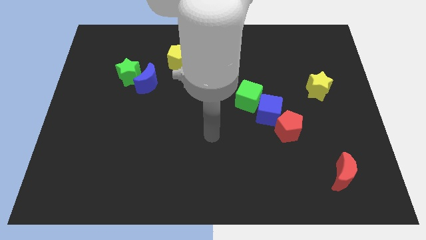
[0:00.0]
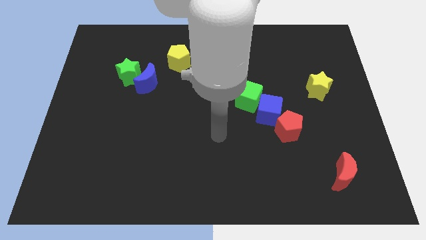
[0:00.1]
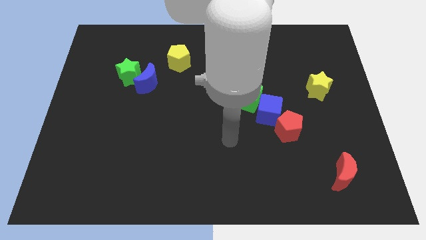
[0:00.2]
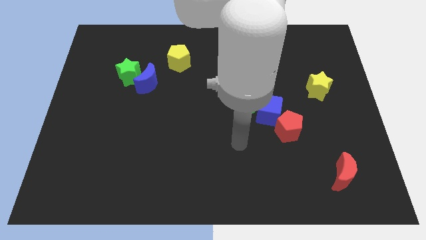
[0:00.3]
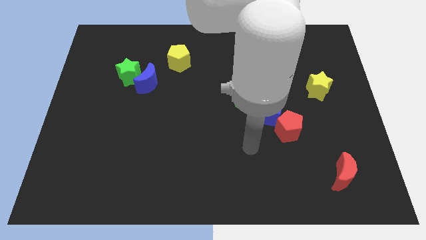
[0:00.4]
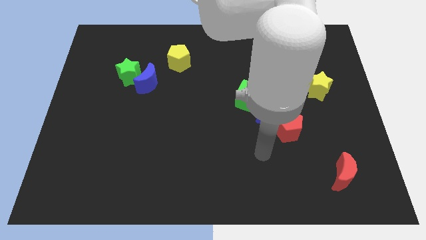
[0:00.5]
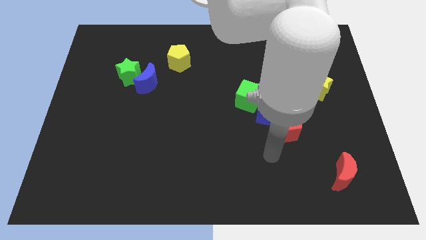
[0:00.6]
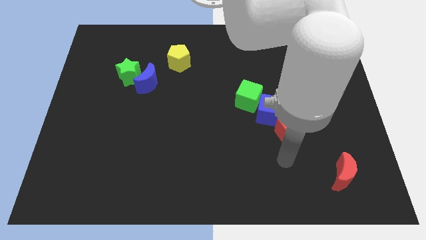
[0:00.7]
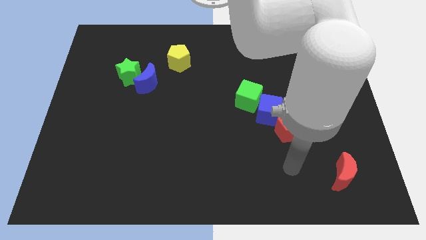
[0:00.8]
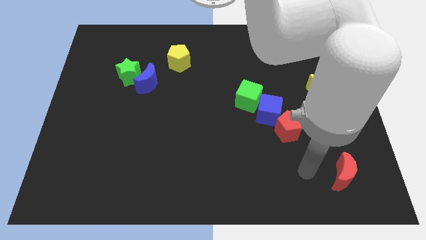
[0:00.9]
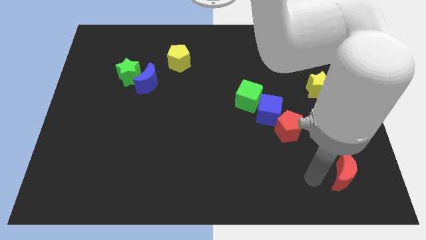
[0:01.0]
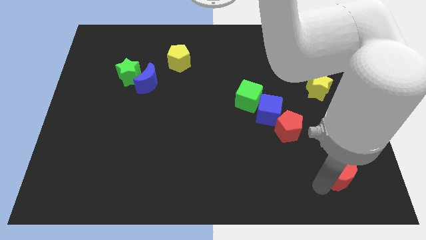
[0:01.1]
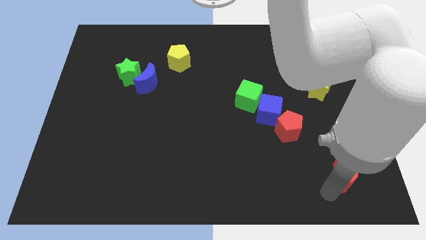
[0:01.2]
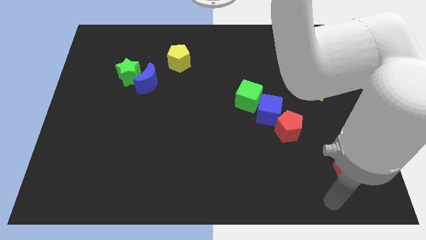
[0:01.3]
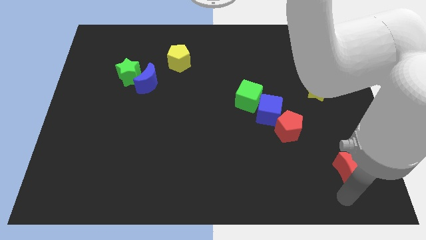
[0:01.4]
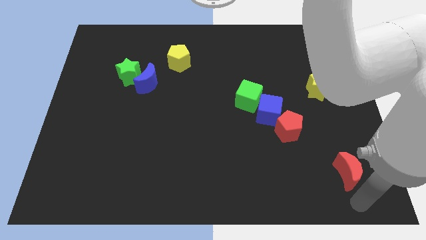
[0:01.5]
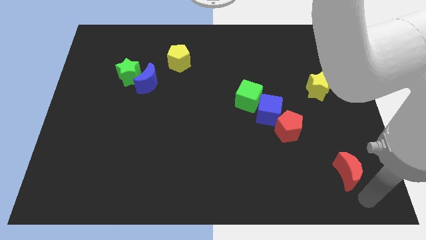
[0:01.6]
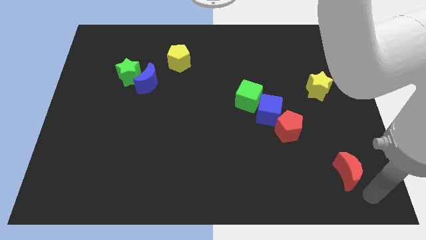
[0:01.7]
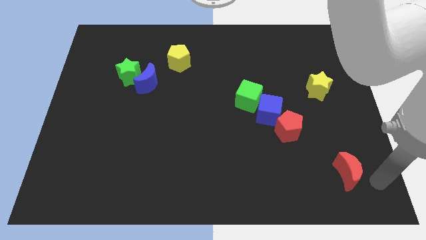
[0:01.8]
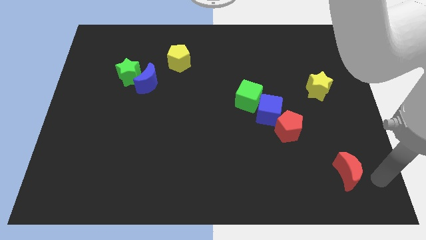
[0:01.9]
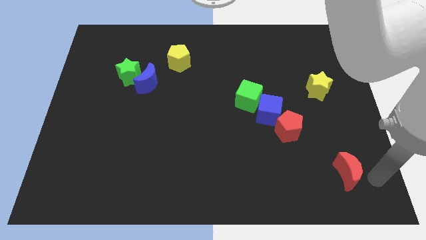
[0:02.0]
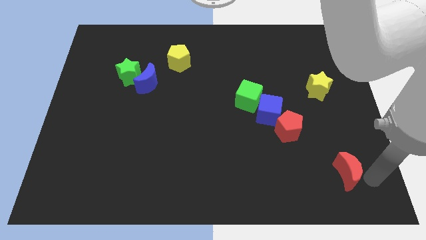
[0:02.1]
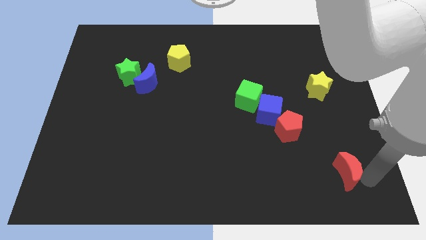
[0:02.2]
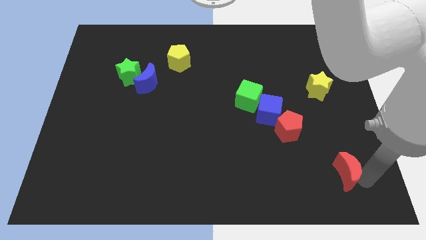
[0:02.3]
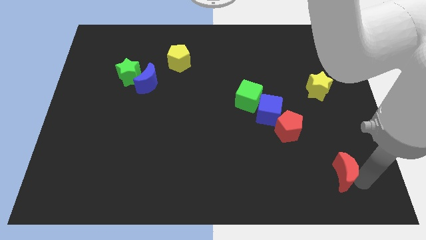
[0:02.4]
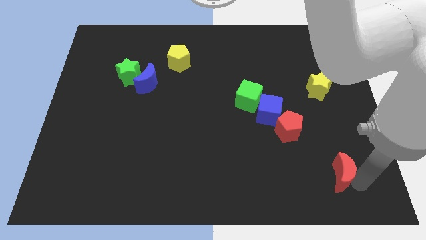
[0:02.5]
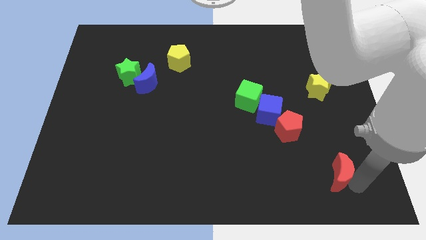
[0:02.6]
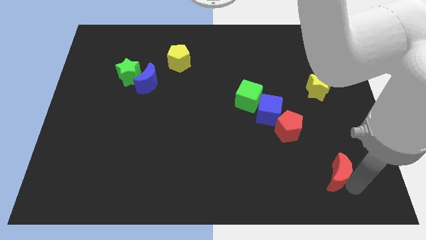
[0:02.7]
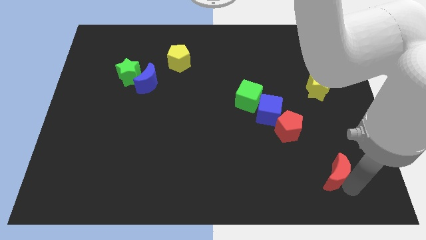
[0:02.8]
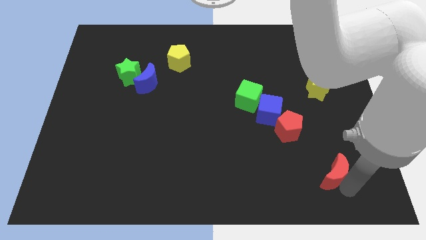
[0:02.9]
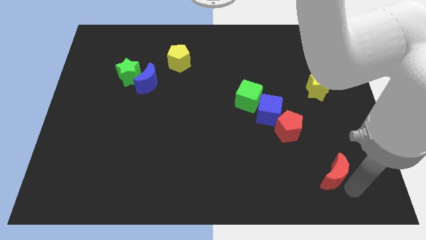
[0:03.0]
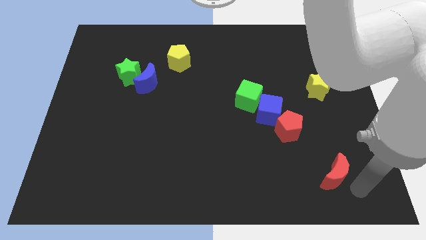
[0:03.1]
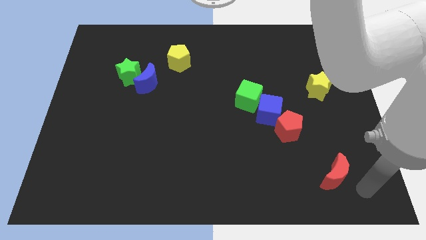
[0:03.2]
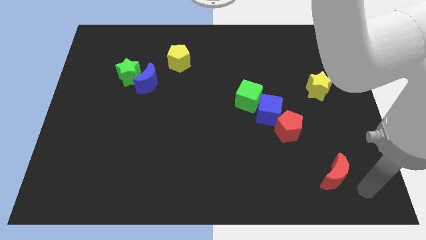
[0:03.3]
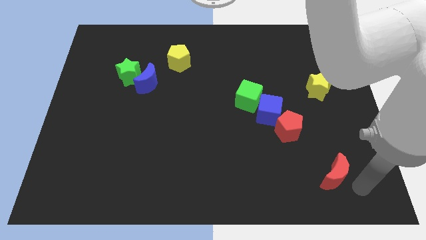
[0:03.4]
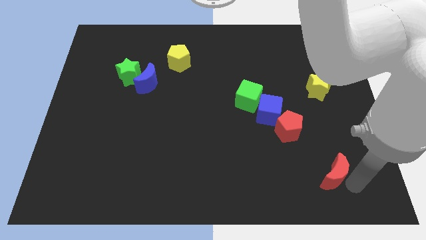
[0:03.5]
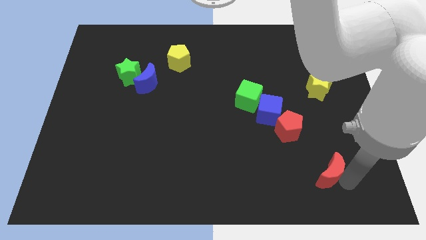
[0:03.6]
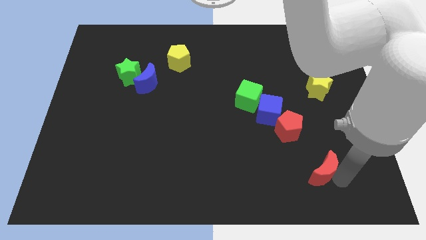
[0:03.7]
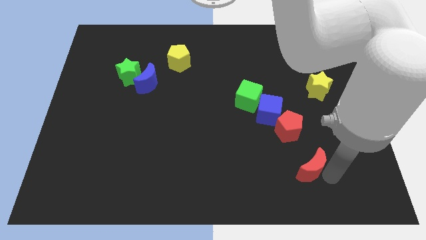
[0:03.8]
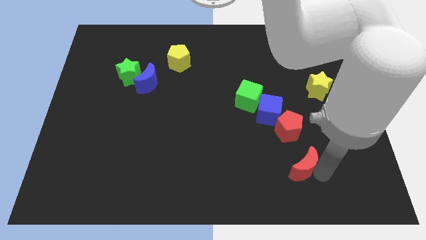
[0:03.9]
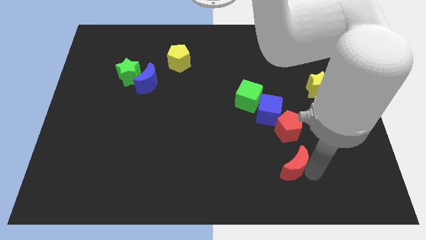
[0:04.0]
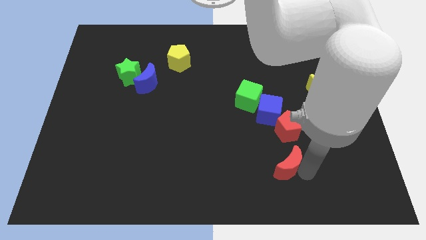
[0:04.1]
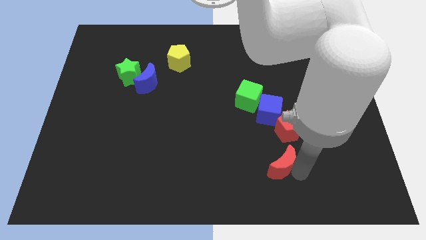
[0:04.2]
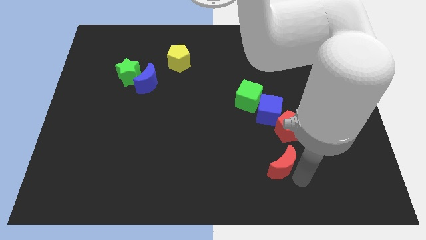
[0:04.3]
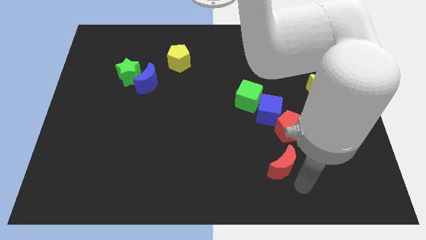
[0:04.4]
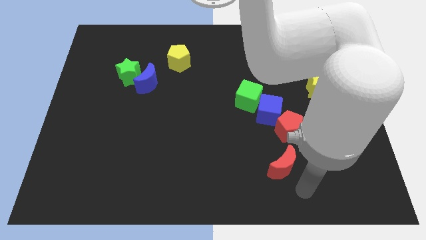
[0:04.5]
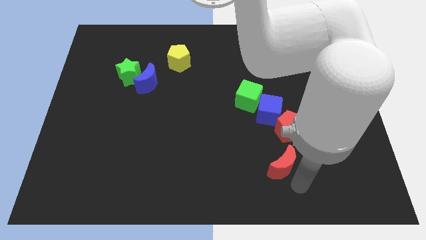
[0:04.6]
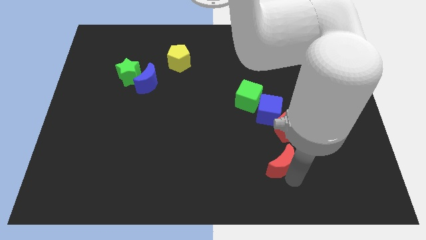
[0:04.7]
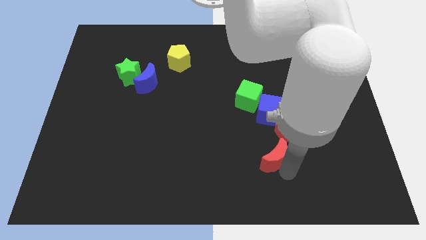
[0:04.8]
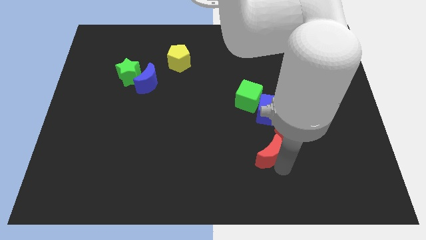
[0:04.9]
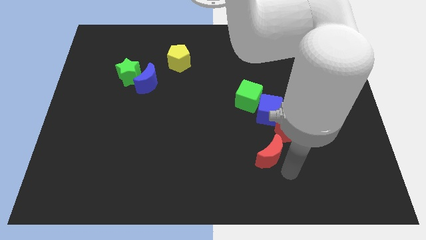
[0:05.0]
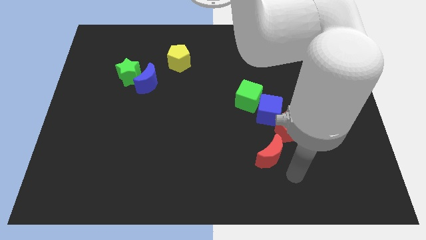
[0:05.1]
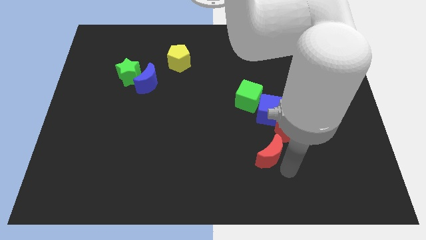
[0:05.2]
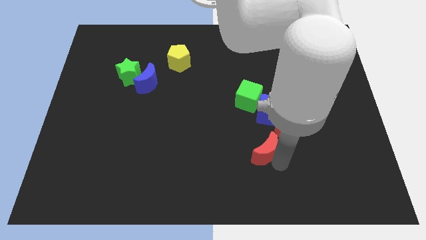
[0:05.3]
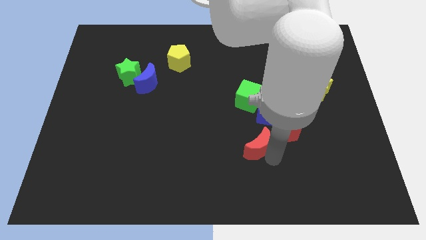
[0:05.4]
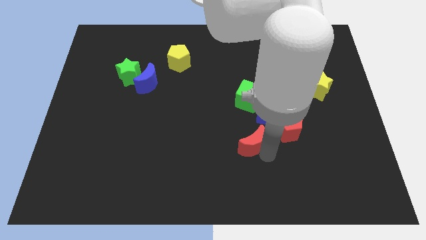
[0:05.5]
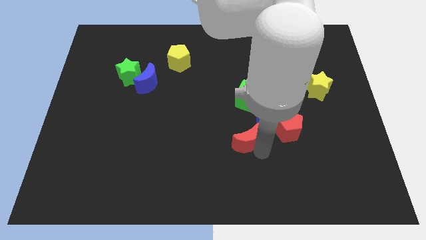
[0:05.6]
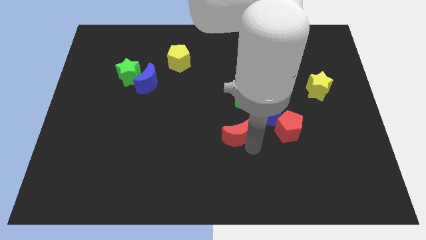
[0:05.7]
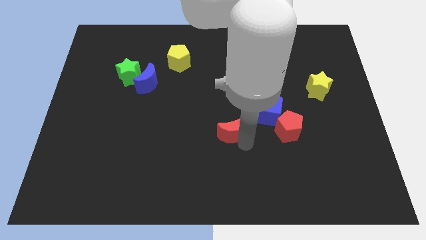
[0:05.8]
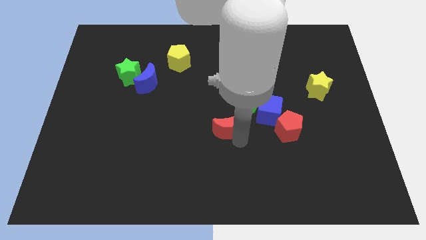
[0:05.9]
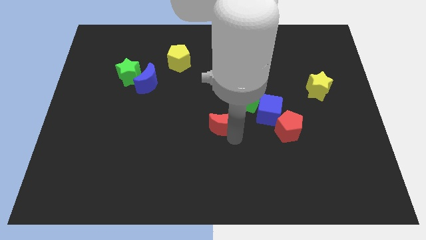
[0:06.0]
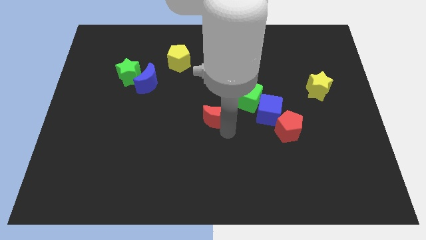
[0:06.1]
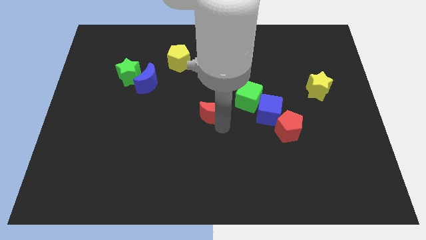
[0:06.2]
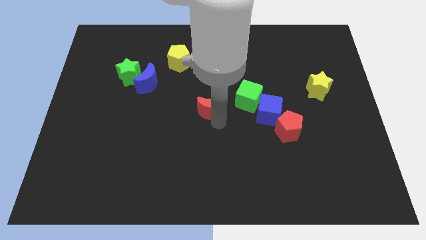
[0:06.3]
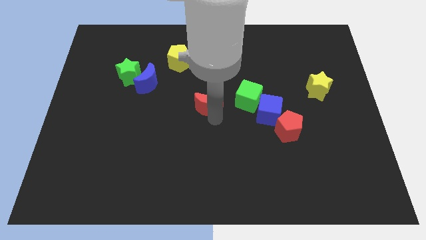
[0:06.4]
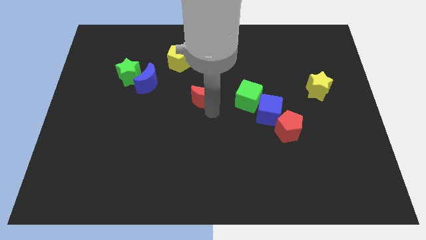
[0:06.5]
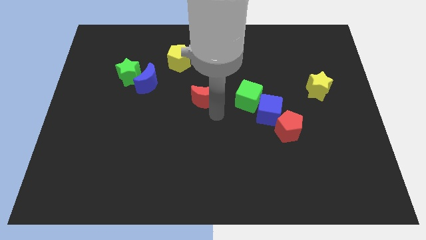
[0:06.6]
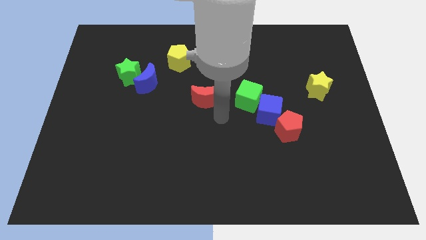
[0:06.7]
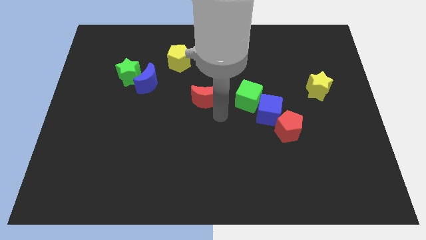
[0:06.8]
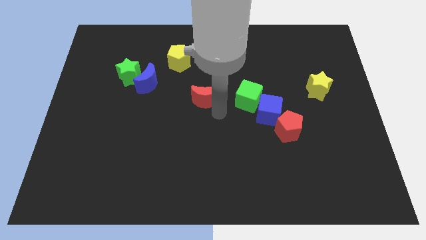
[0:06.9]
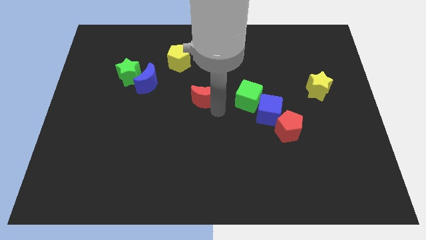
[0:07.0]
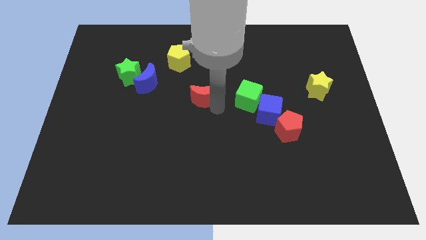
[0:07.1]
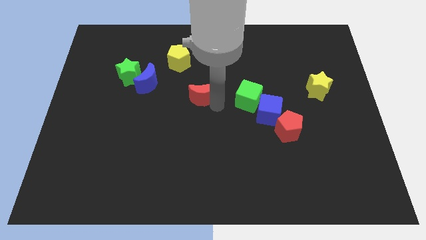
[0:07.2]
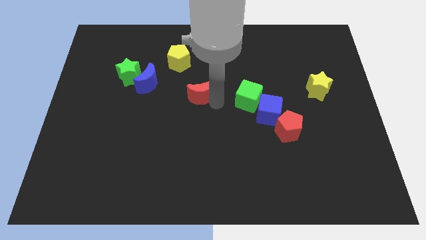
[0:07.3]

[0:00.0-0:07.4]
move the red moon right of the blue moon
